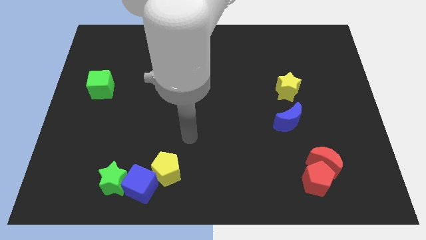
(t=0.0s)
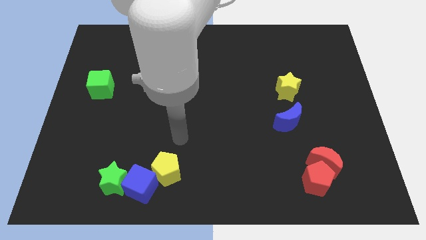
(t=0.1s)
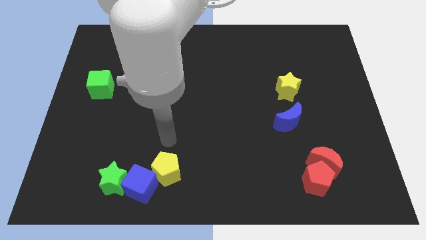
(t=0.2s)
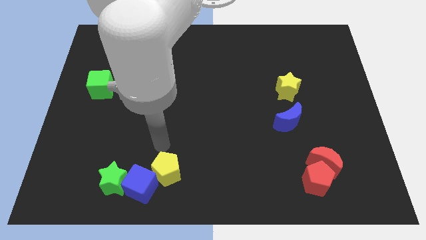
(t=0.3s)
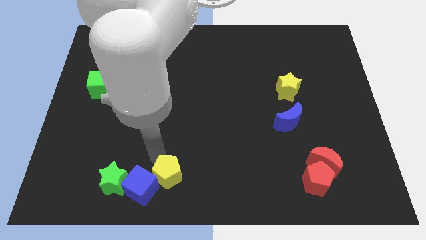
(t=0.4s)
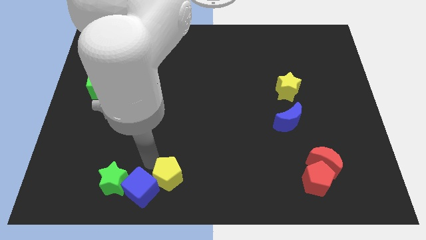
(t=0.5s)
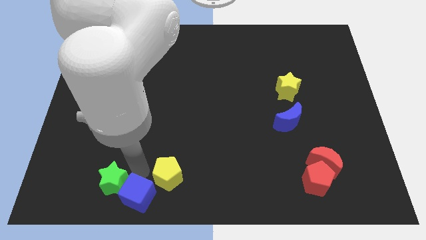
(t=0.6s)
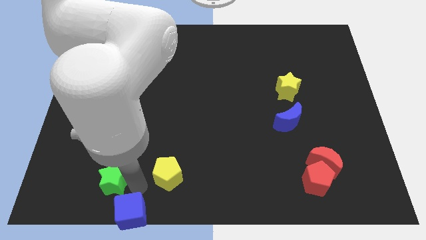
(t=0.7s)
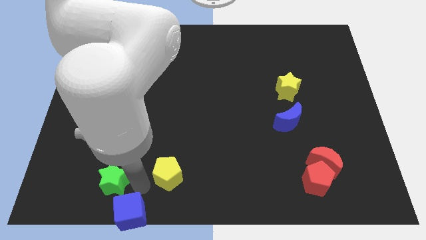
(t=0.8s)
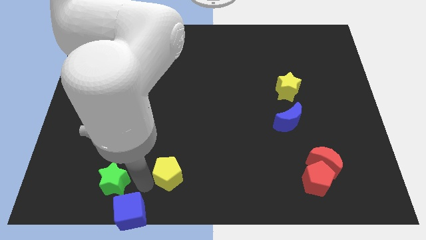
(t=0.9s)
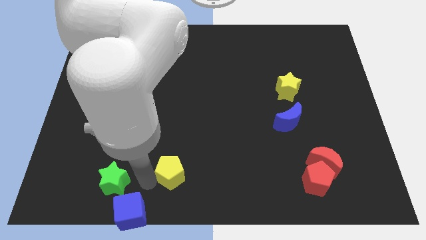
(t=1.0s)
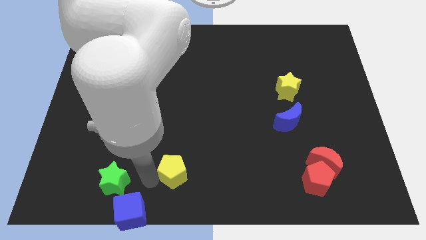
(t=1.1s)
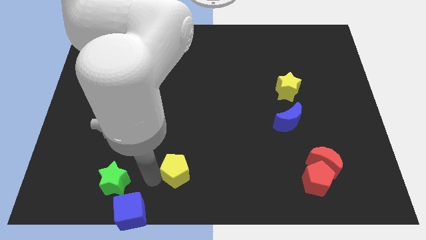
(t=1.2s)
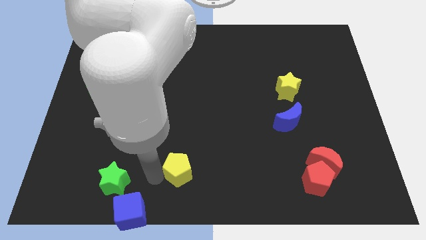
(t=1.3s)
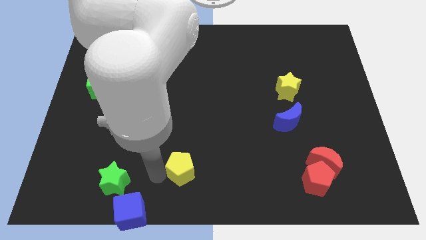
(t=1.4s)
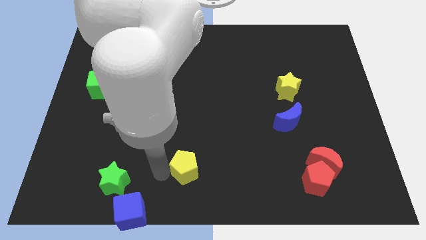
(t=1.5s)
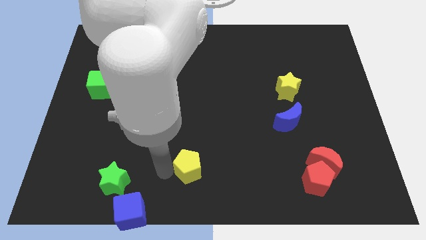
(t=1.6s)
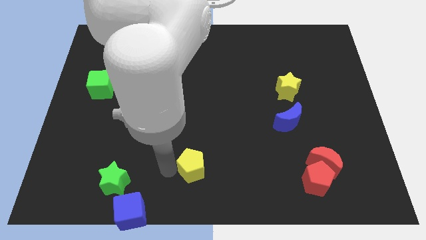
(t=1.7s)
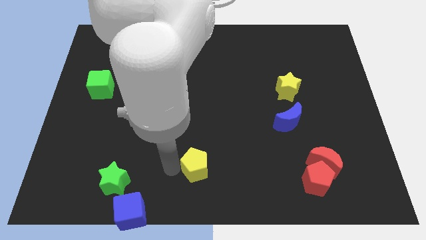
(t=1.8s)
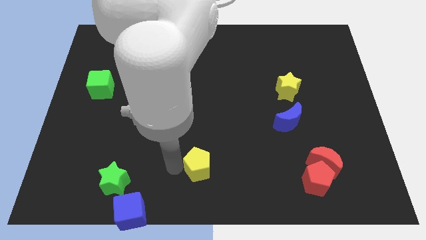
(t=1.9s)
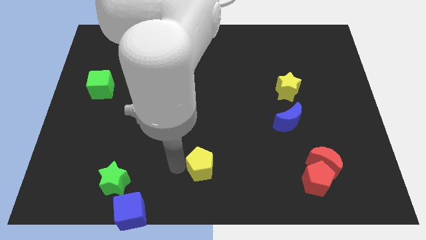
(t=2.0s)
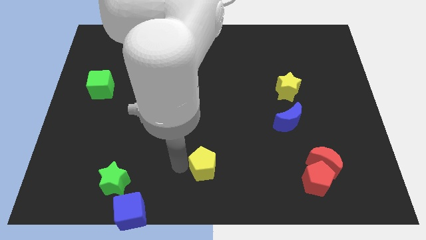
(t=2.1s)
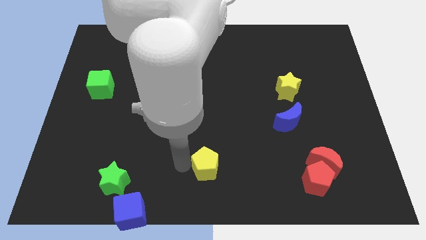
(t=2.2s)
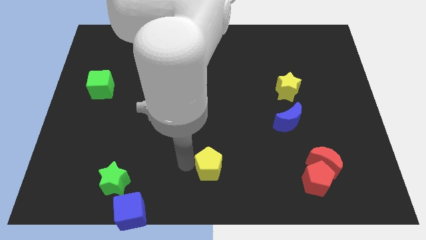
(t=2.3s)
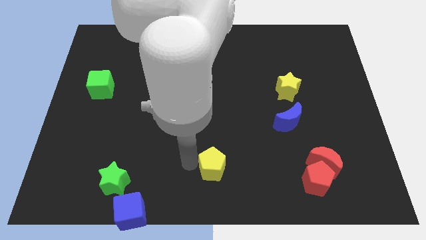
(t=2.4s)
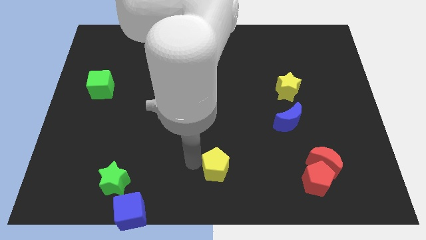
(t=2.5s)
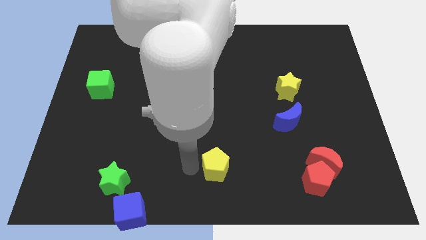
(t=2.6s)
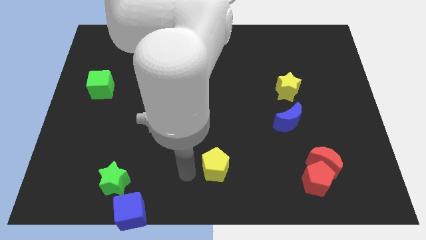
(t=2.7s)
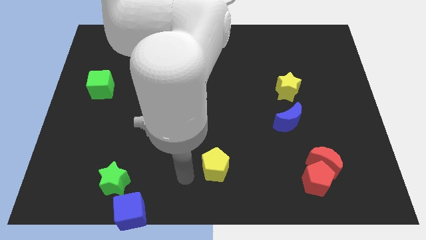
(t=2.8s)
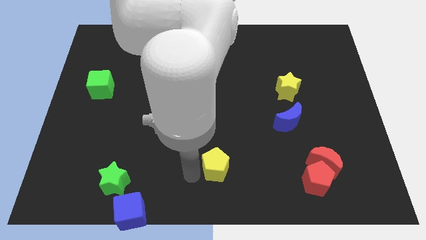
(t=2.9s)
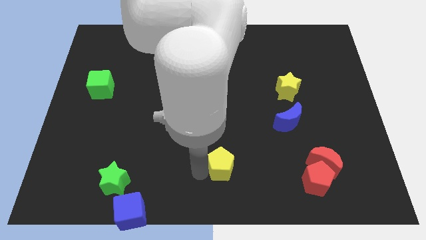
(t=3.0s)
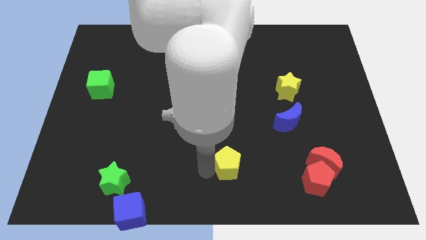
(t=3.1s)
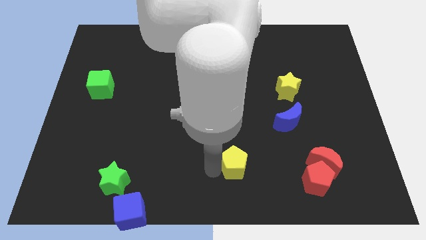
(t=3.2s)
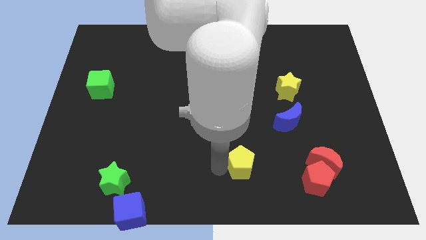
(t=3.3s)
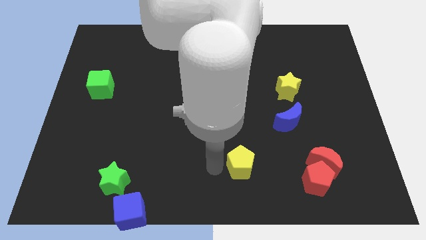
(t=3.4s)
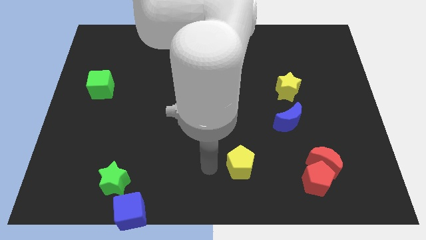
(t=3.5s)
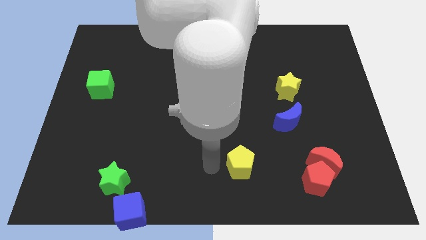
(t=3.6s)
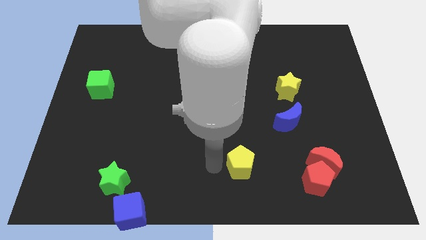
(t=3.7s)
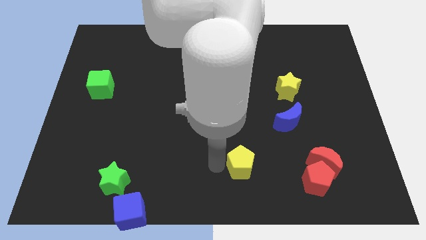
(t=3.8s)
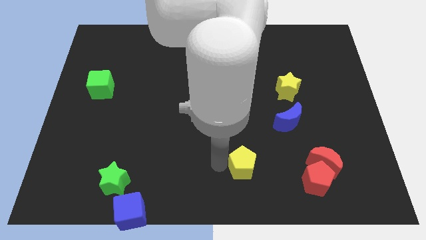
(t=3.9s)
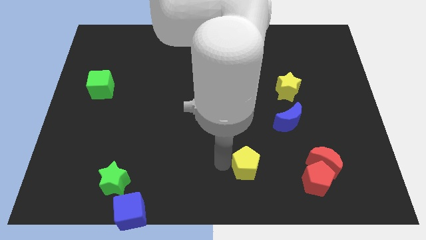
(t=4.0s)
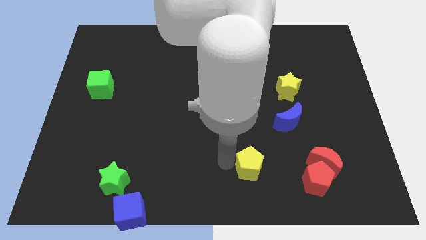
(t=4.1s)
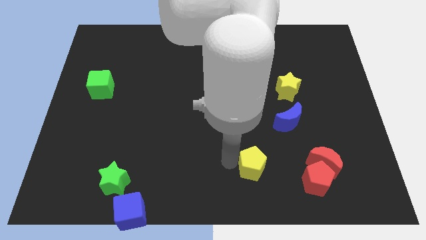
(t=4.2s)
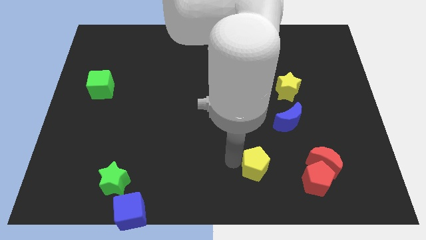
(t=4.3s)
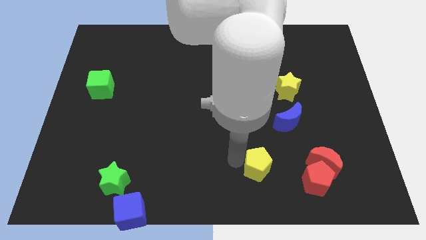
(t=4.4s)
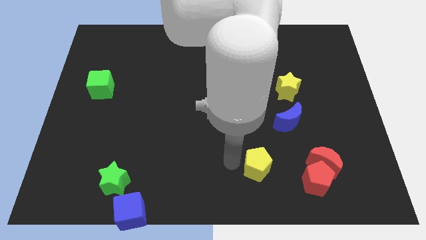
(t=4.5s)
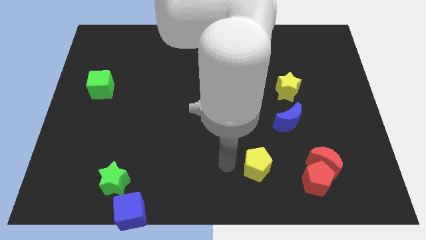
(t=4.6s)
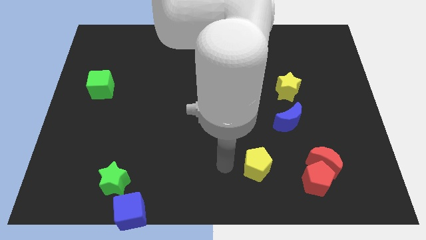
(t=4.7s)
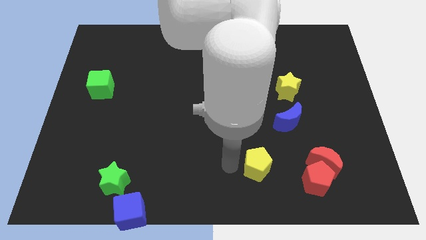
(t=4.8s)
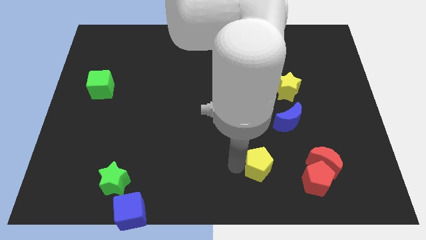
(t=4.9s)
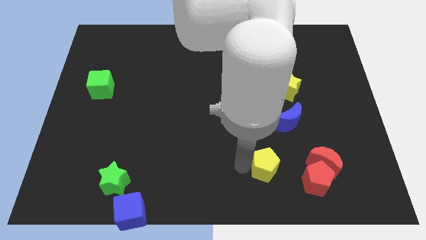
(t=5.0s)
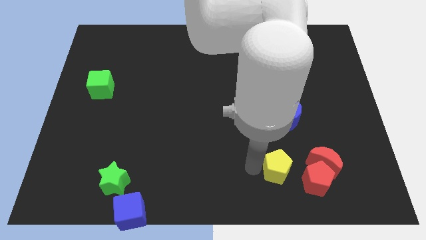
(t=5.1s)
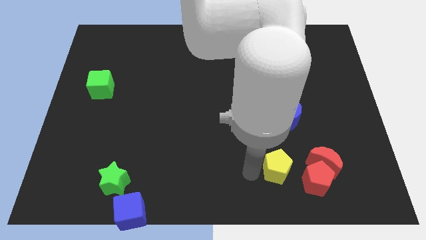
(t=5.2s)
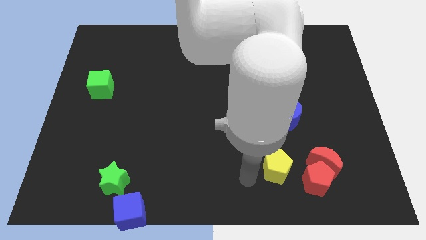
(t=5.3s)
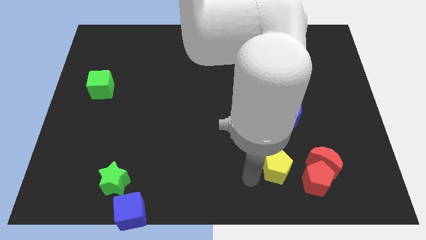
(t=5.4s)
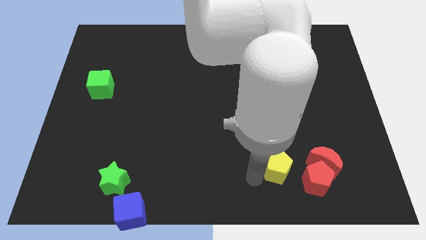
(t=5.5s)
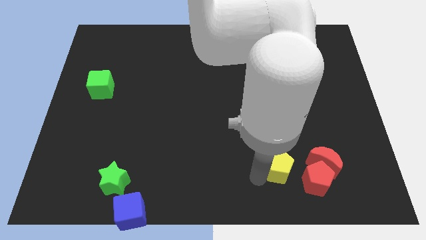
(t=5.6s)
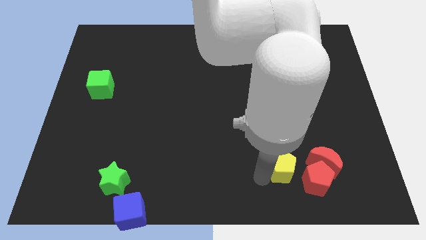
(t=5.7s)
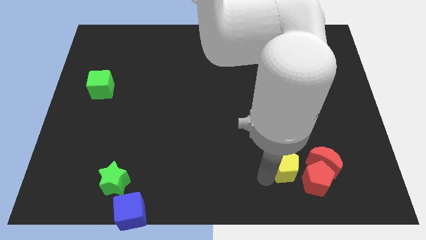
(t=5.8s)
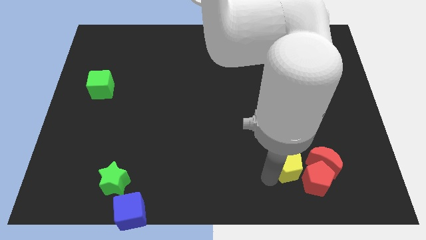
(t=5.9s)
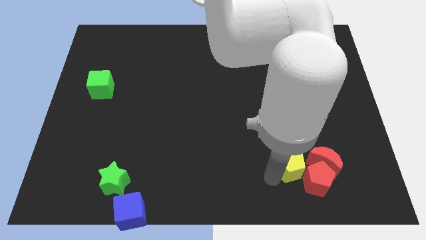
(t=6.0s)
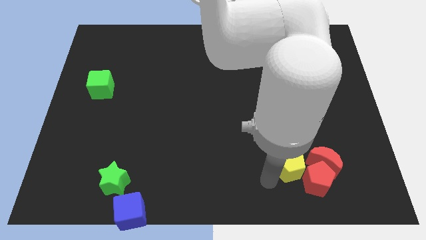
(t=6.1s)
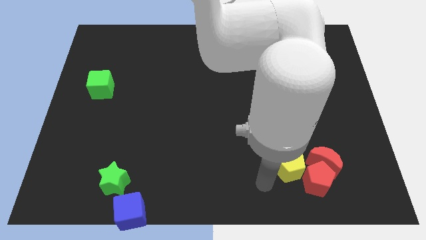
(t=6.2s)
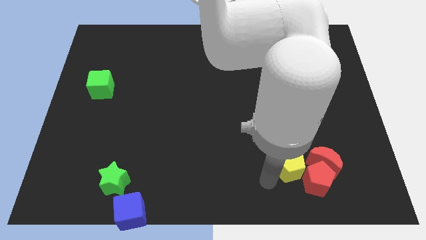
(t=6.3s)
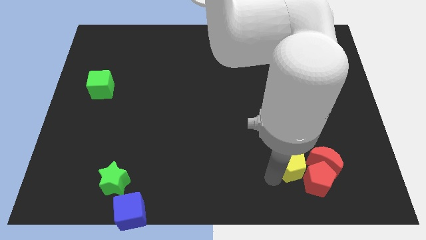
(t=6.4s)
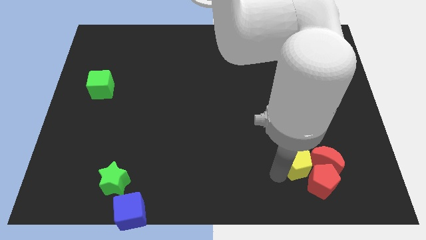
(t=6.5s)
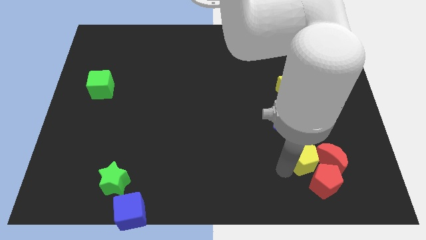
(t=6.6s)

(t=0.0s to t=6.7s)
put the yellow pentagon next to the red moon

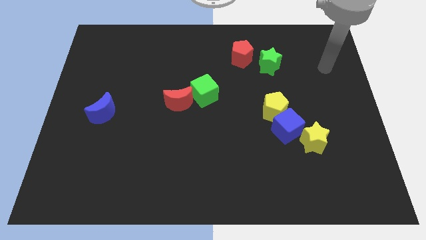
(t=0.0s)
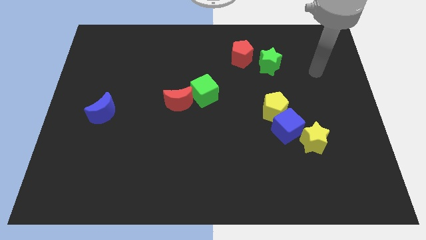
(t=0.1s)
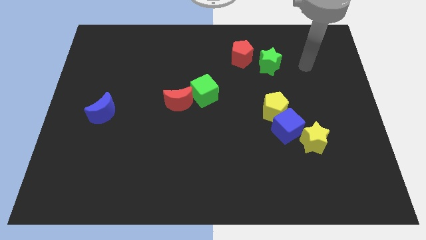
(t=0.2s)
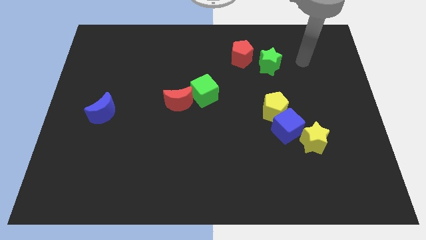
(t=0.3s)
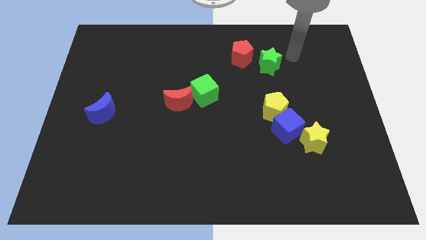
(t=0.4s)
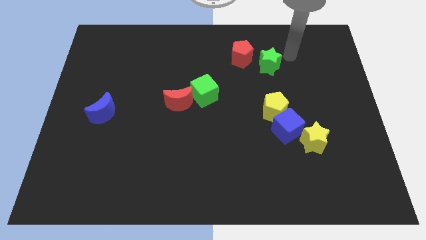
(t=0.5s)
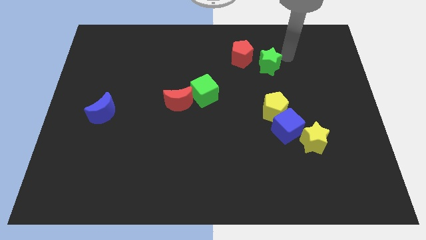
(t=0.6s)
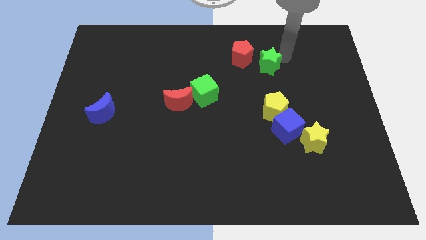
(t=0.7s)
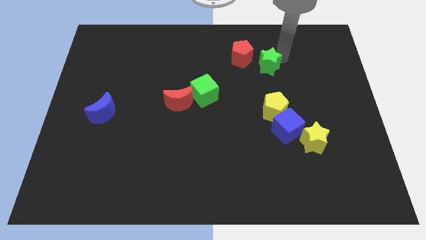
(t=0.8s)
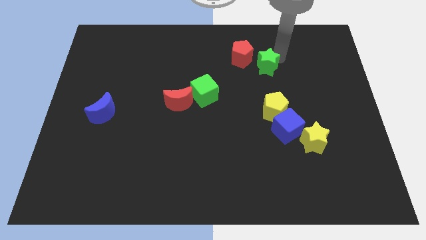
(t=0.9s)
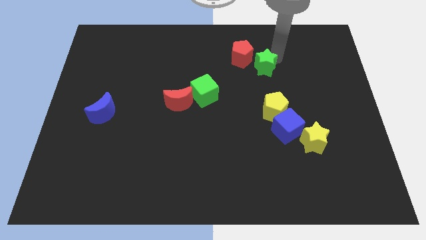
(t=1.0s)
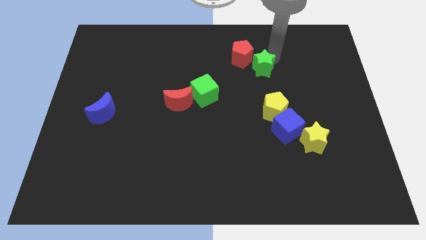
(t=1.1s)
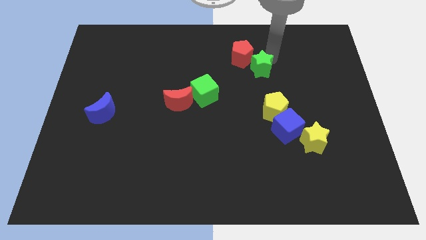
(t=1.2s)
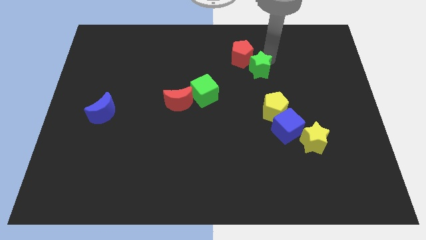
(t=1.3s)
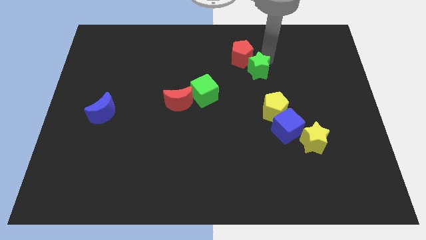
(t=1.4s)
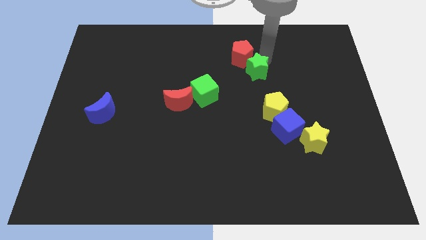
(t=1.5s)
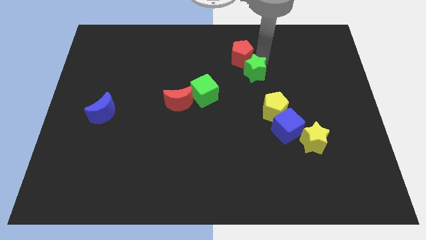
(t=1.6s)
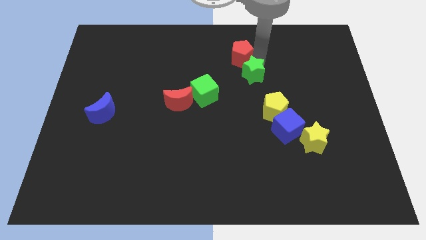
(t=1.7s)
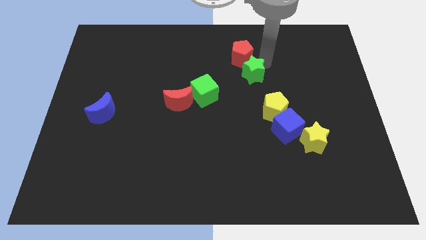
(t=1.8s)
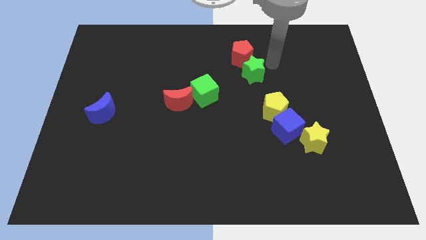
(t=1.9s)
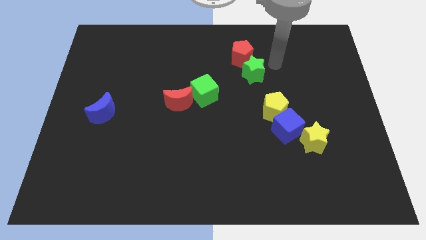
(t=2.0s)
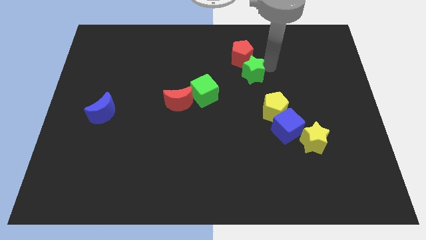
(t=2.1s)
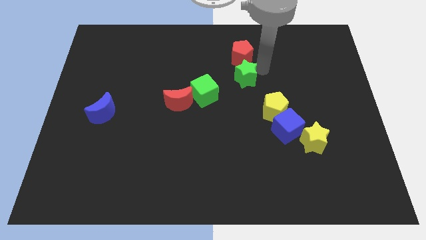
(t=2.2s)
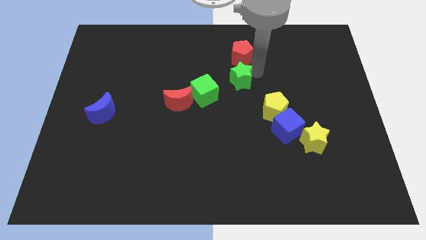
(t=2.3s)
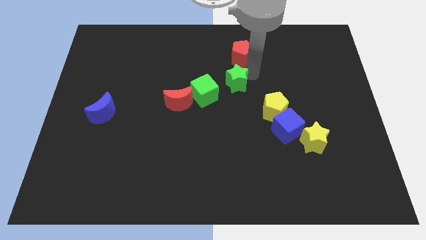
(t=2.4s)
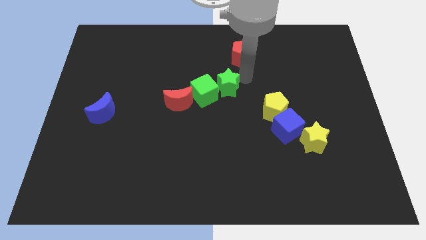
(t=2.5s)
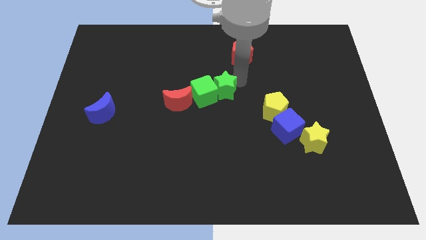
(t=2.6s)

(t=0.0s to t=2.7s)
put the green star towards the green cube
